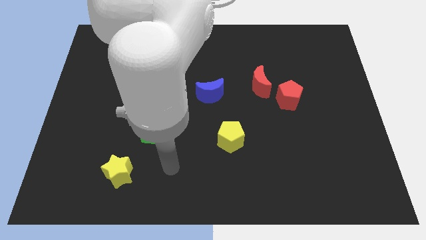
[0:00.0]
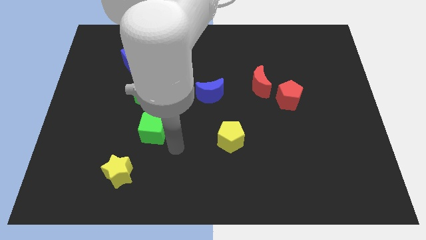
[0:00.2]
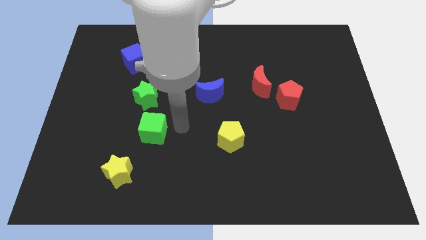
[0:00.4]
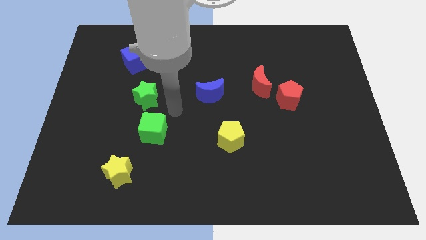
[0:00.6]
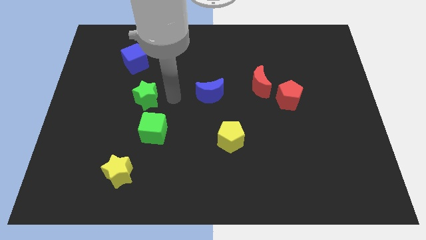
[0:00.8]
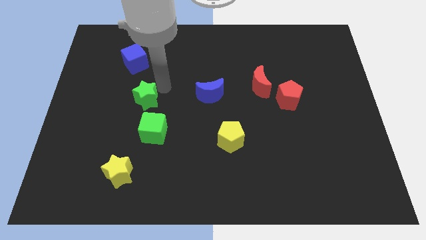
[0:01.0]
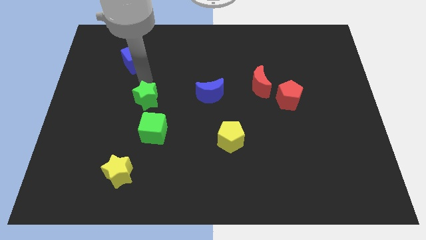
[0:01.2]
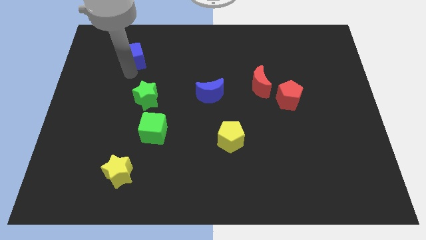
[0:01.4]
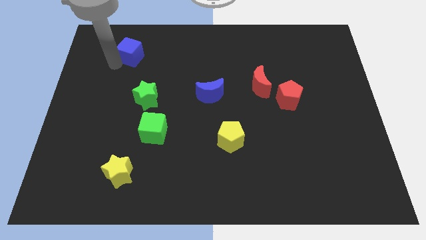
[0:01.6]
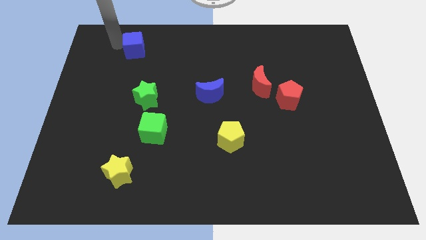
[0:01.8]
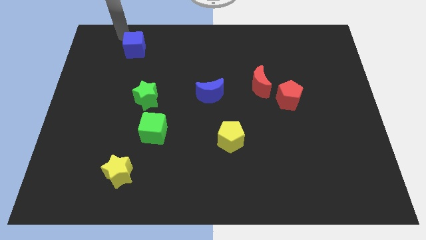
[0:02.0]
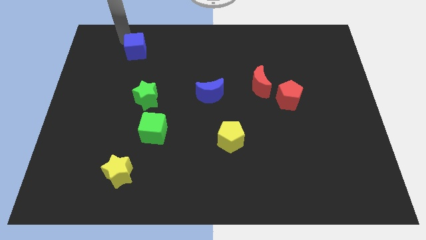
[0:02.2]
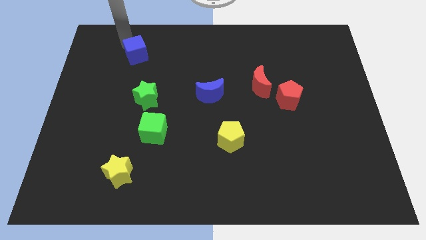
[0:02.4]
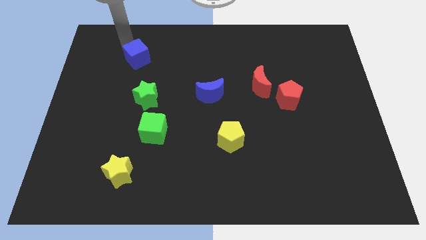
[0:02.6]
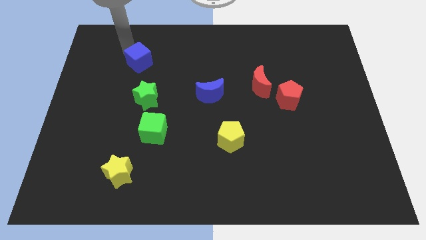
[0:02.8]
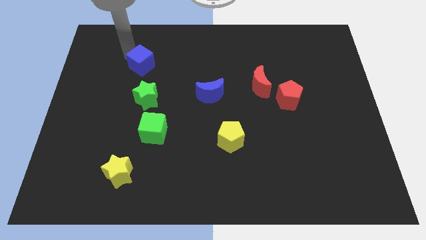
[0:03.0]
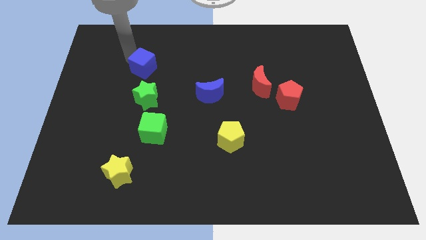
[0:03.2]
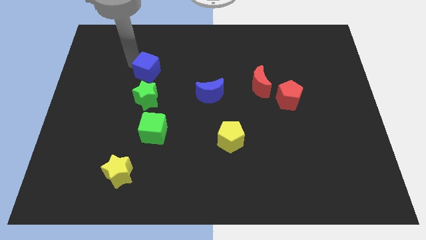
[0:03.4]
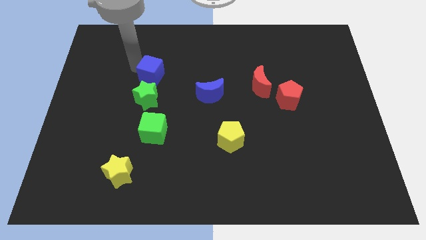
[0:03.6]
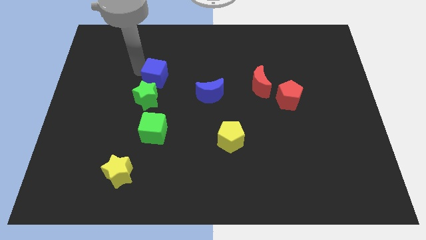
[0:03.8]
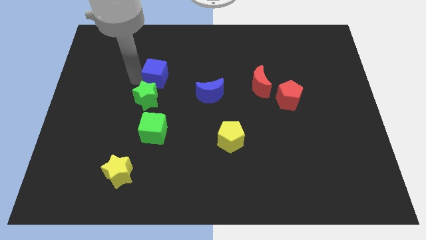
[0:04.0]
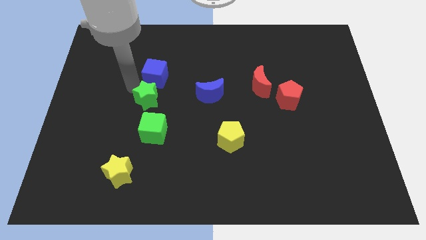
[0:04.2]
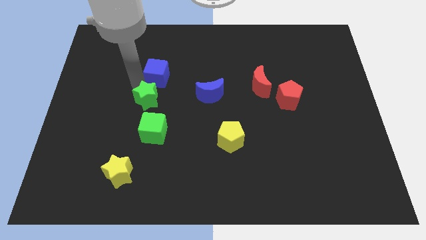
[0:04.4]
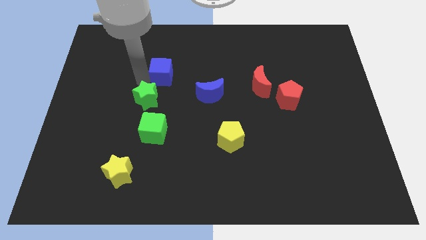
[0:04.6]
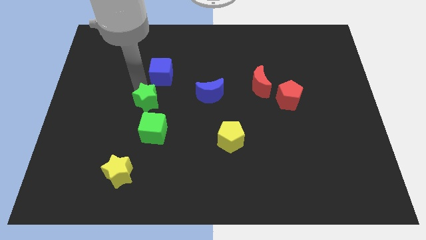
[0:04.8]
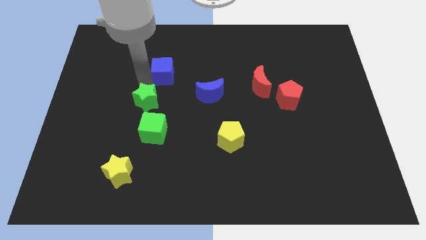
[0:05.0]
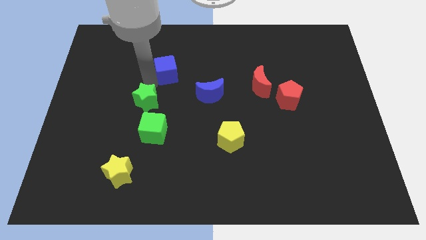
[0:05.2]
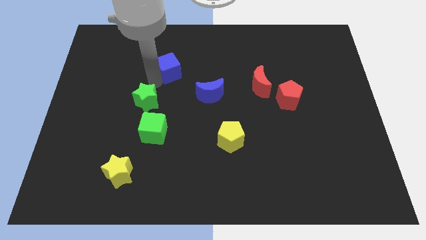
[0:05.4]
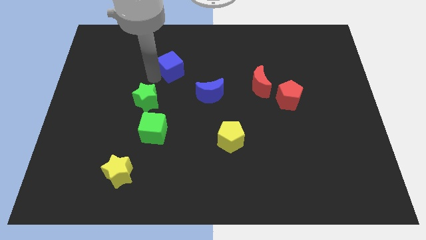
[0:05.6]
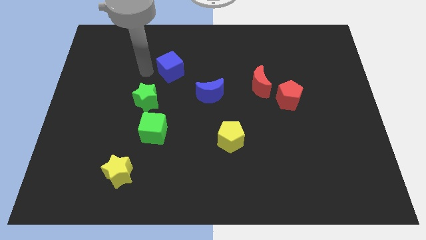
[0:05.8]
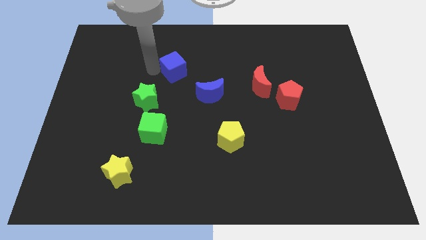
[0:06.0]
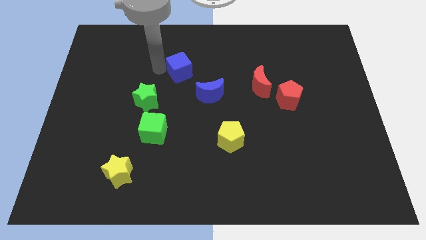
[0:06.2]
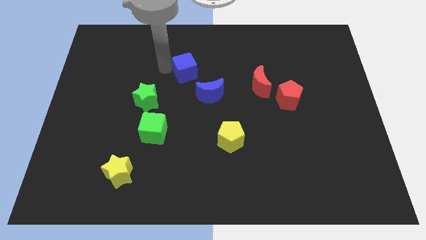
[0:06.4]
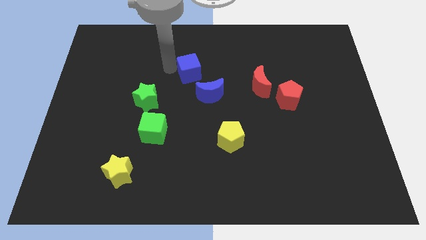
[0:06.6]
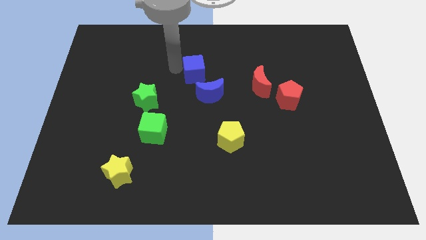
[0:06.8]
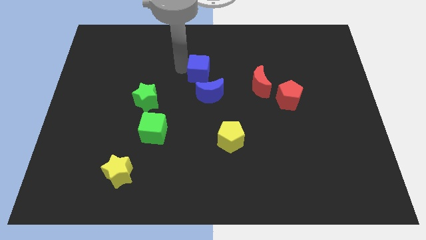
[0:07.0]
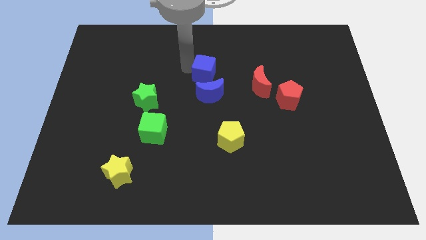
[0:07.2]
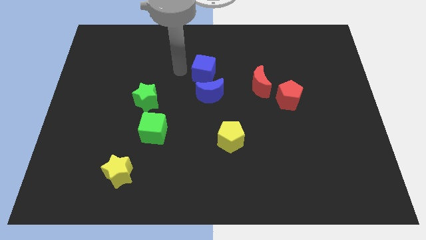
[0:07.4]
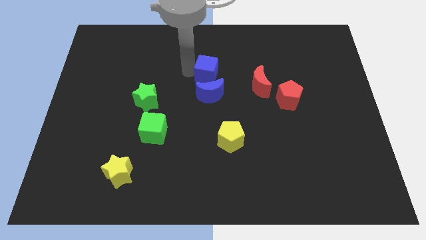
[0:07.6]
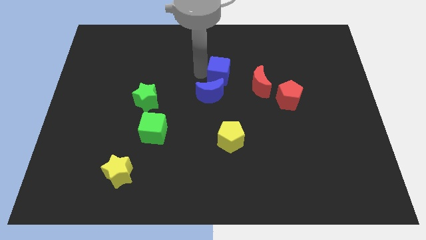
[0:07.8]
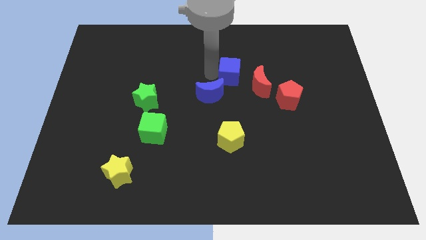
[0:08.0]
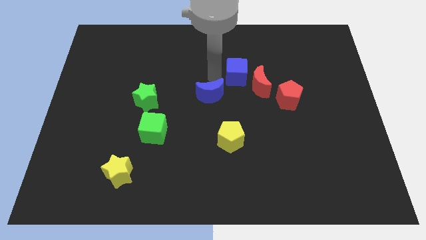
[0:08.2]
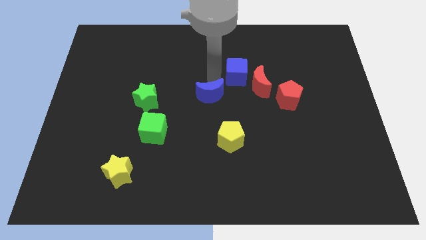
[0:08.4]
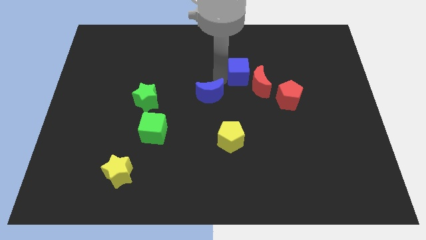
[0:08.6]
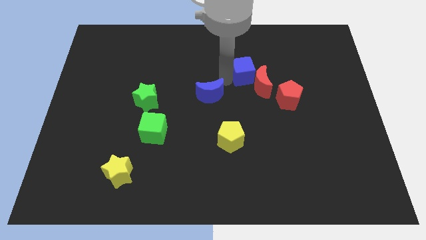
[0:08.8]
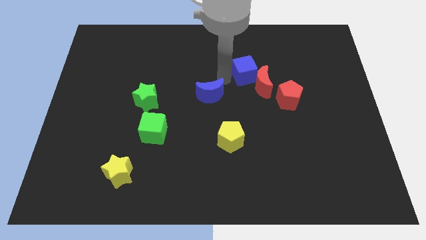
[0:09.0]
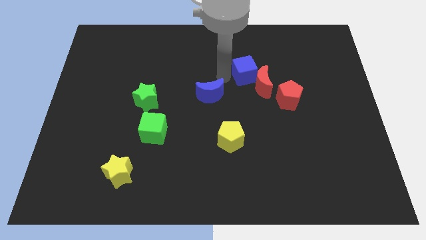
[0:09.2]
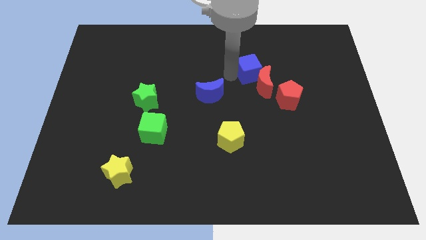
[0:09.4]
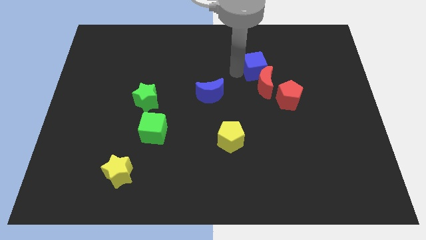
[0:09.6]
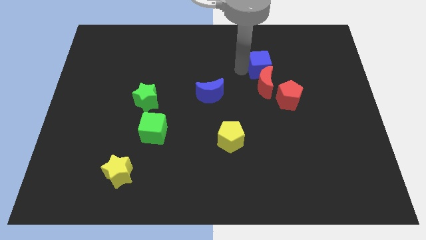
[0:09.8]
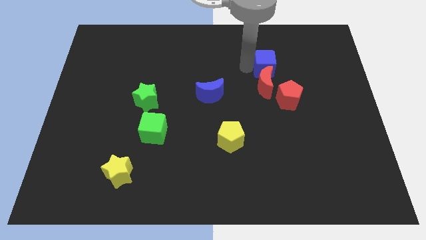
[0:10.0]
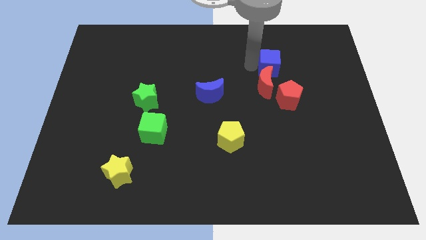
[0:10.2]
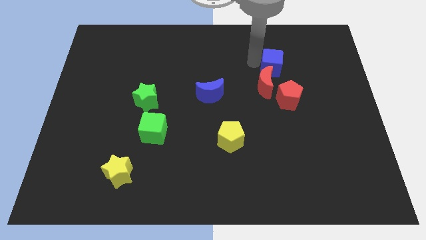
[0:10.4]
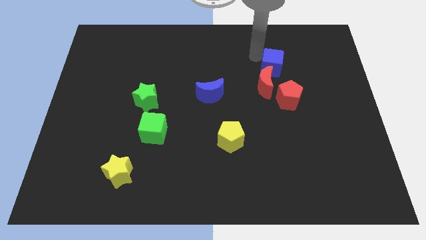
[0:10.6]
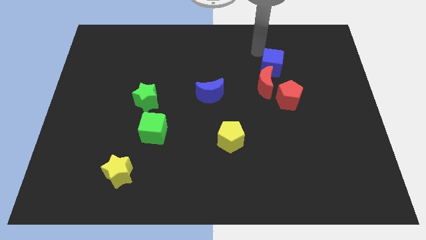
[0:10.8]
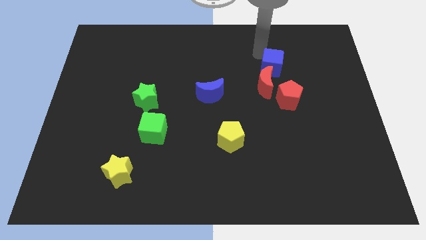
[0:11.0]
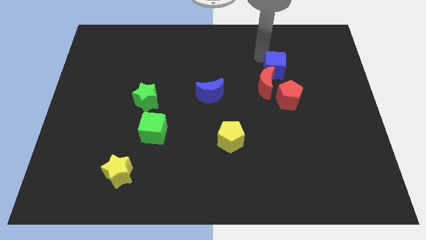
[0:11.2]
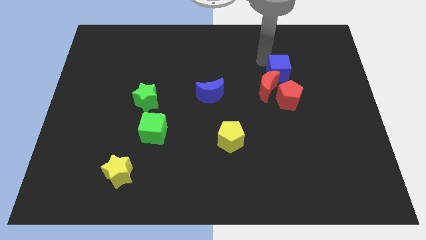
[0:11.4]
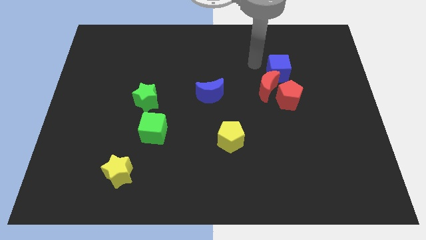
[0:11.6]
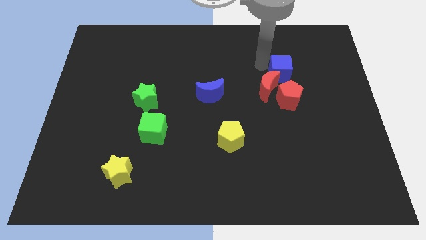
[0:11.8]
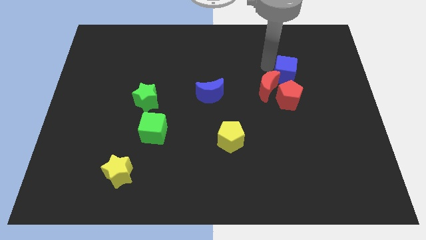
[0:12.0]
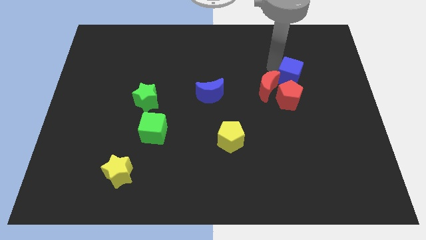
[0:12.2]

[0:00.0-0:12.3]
move the blue cube to the top right side of the red pentagon

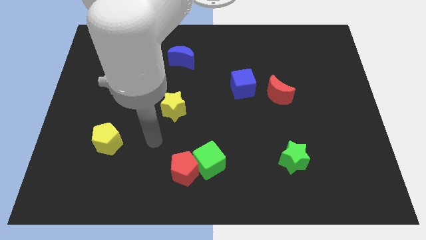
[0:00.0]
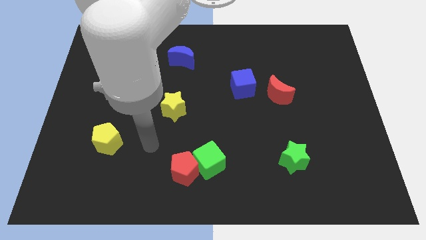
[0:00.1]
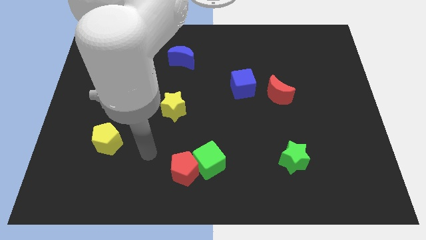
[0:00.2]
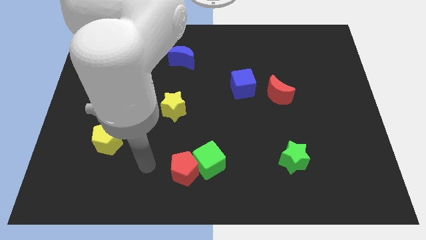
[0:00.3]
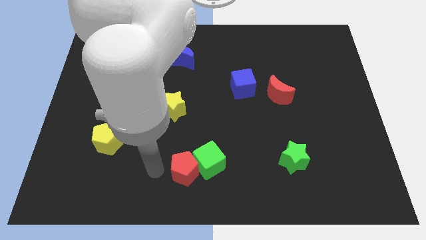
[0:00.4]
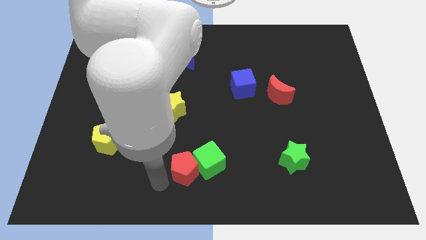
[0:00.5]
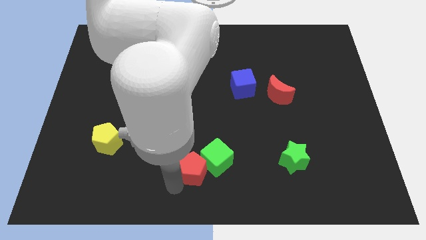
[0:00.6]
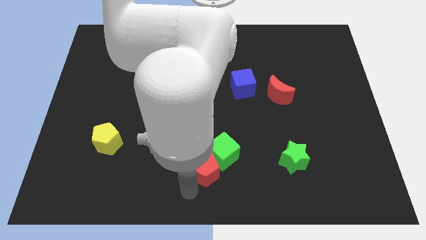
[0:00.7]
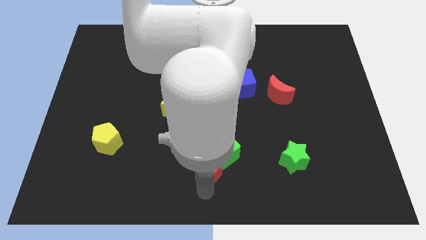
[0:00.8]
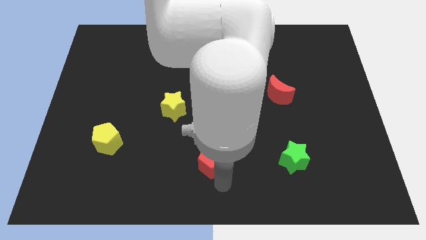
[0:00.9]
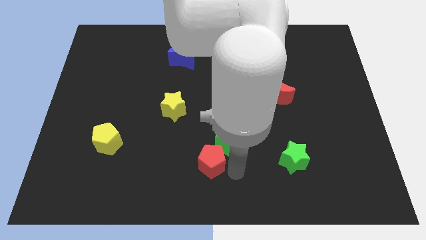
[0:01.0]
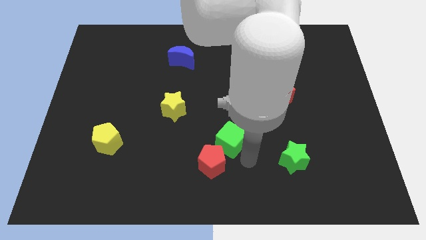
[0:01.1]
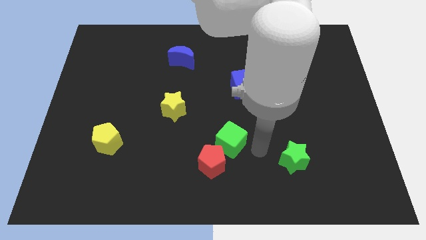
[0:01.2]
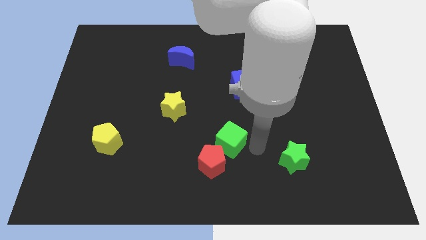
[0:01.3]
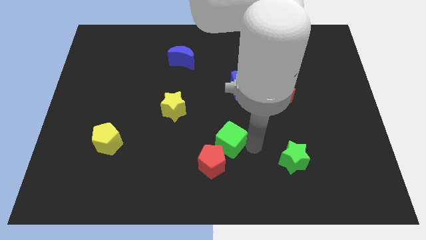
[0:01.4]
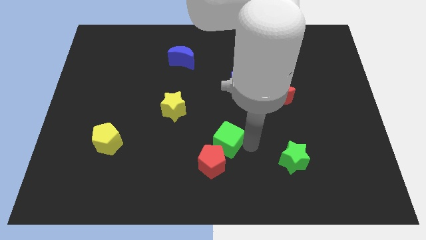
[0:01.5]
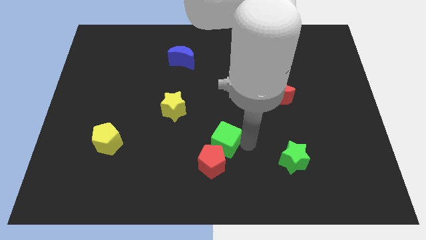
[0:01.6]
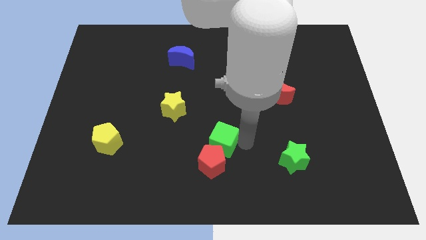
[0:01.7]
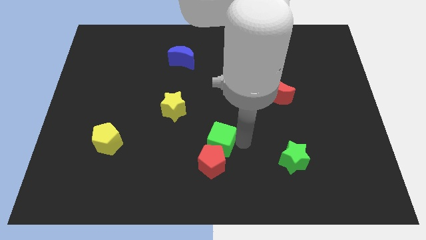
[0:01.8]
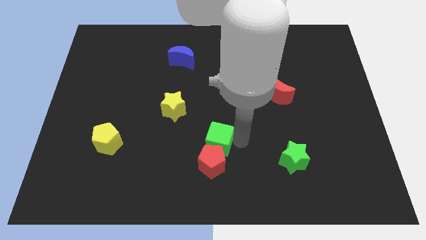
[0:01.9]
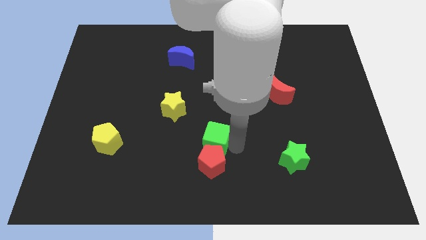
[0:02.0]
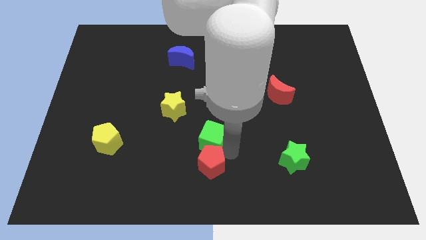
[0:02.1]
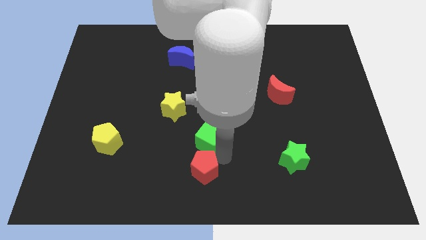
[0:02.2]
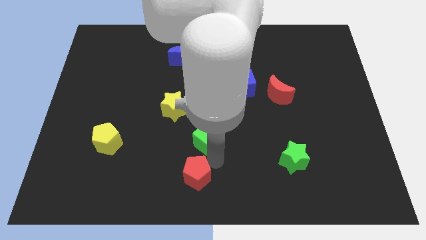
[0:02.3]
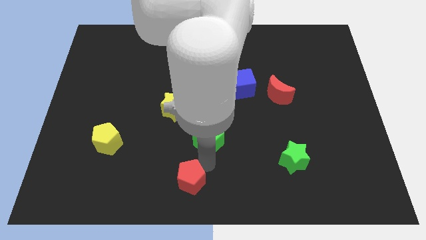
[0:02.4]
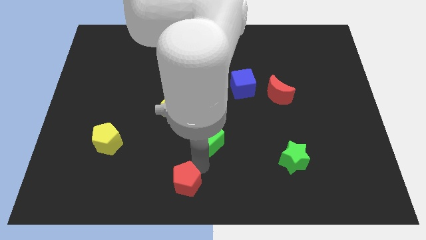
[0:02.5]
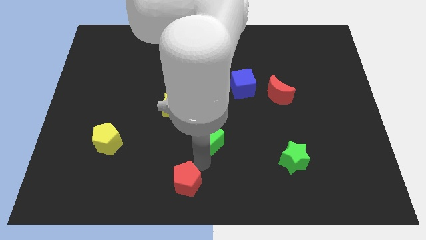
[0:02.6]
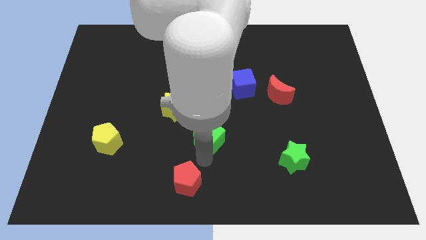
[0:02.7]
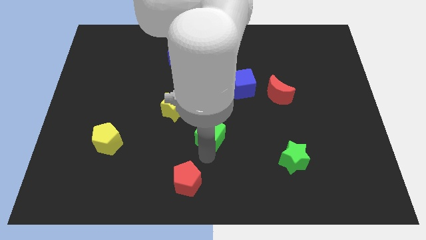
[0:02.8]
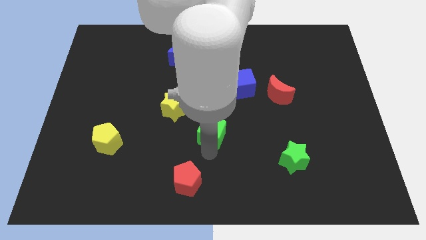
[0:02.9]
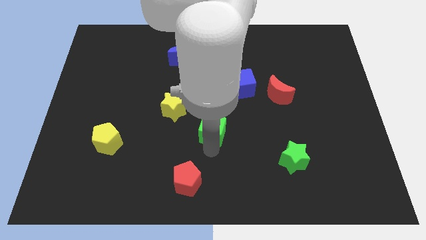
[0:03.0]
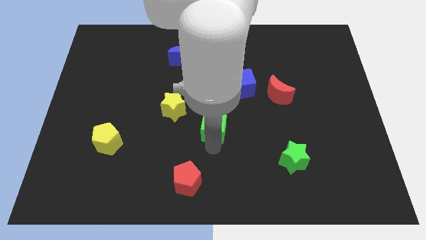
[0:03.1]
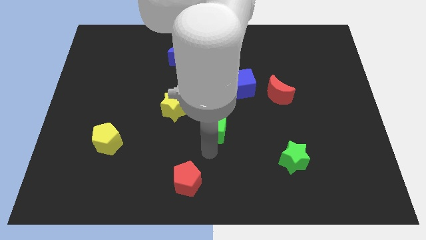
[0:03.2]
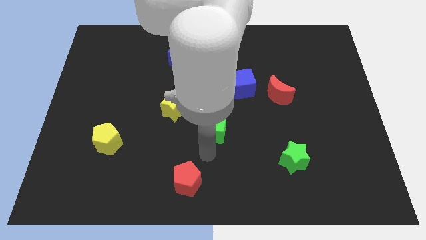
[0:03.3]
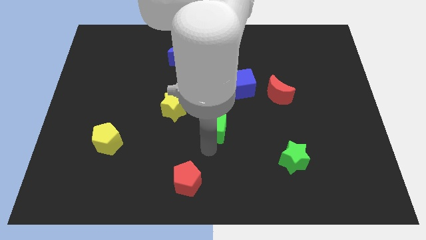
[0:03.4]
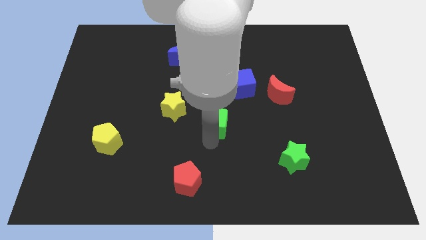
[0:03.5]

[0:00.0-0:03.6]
push the green cube to the right of the yellow star
